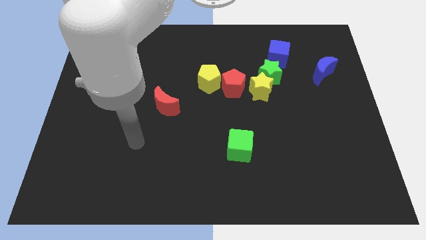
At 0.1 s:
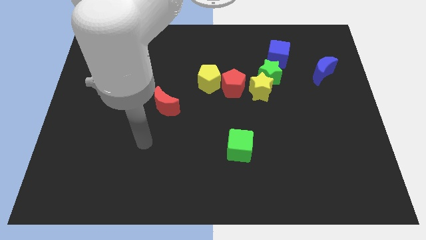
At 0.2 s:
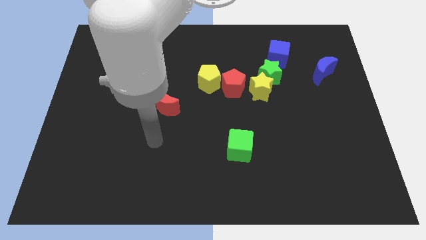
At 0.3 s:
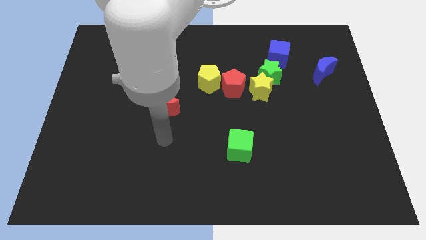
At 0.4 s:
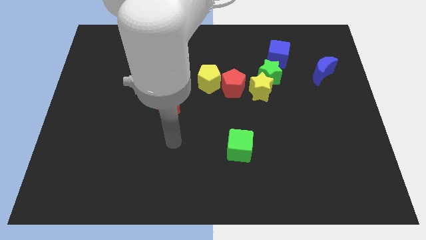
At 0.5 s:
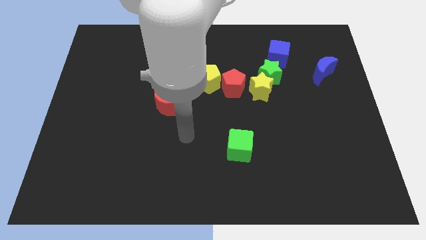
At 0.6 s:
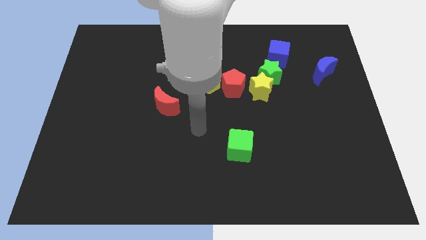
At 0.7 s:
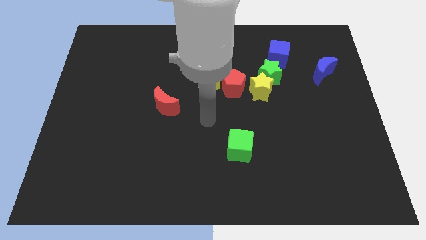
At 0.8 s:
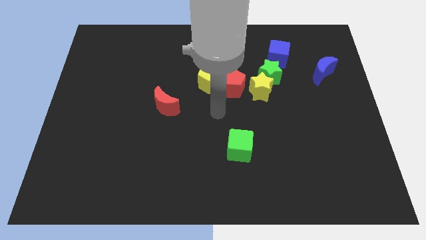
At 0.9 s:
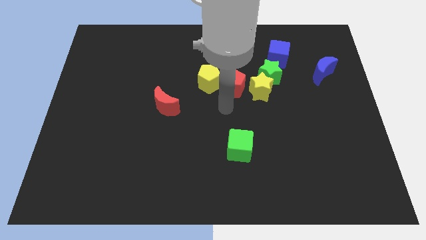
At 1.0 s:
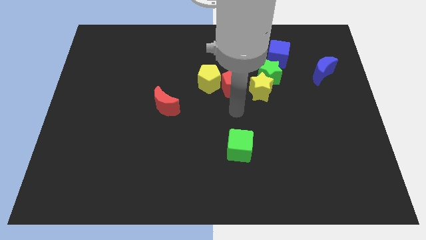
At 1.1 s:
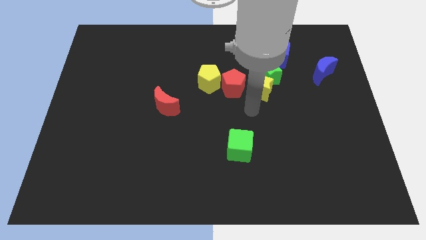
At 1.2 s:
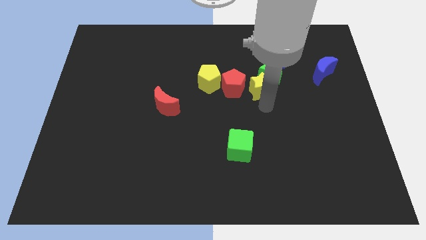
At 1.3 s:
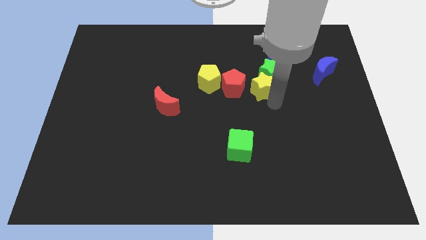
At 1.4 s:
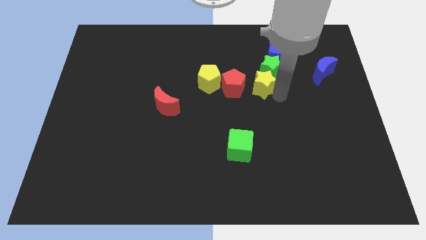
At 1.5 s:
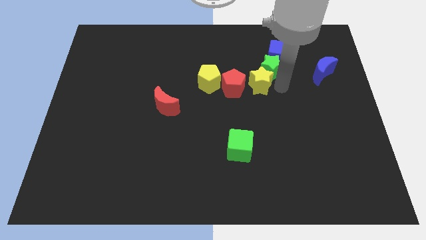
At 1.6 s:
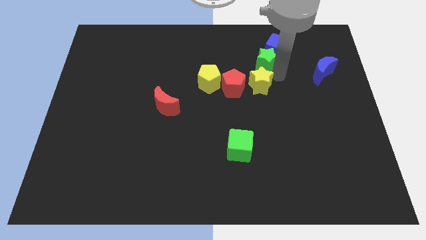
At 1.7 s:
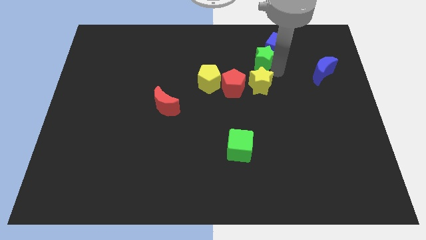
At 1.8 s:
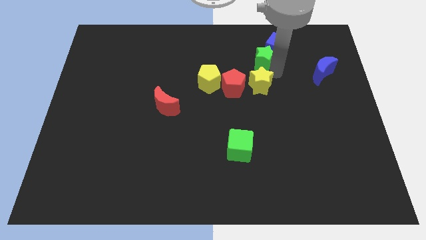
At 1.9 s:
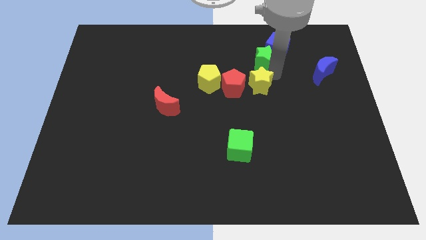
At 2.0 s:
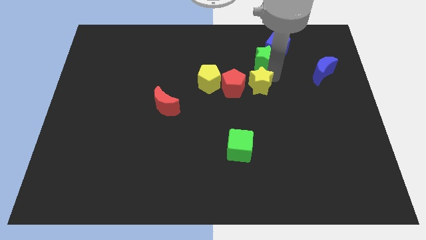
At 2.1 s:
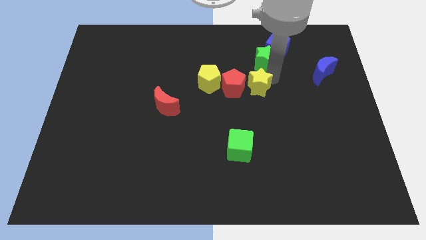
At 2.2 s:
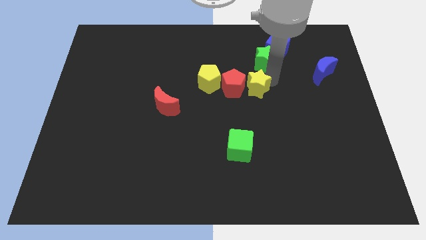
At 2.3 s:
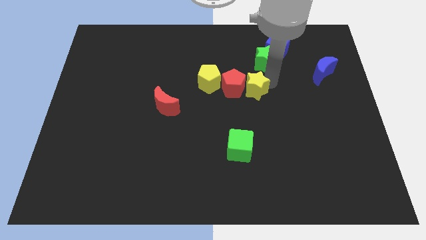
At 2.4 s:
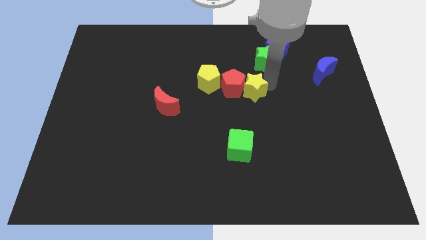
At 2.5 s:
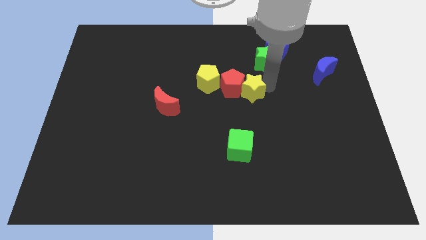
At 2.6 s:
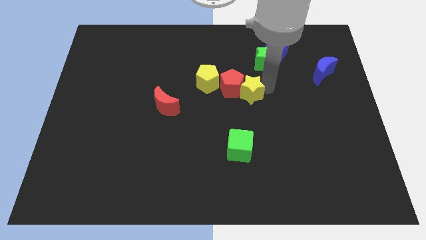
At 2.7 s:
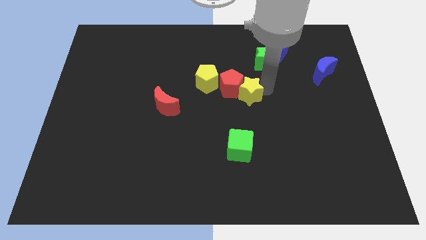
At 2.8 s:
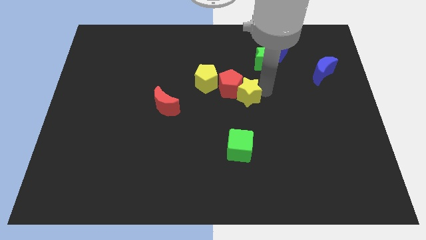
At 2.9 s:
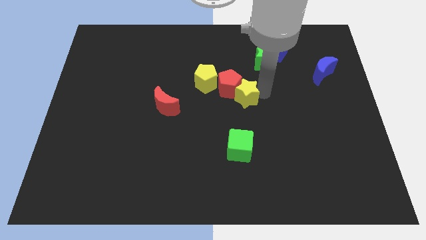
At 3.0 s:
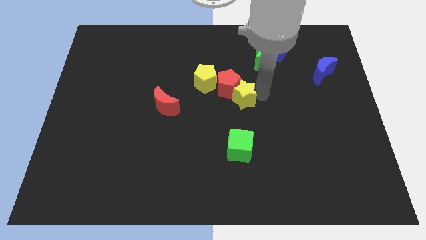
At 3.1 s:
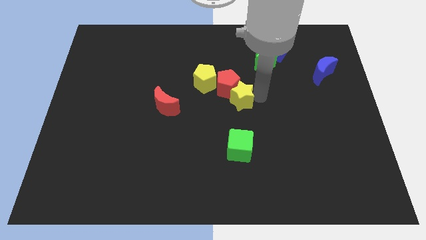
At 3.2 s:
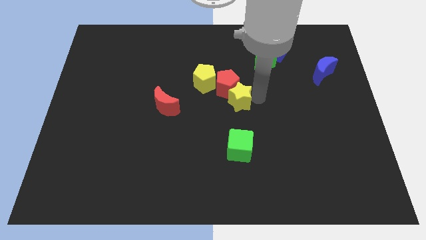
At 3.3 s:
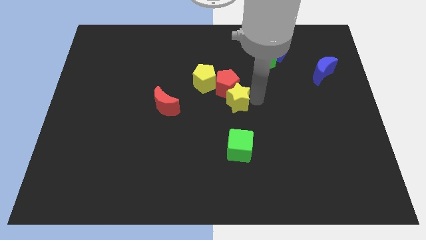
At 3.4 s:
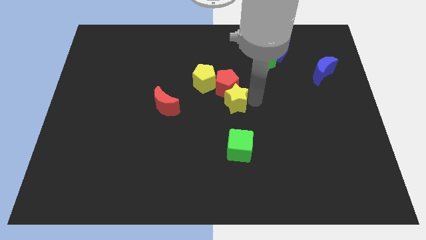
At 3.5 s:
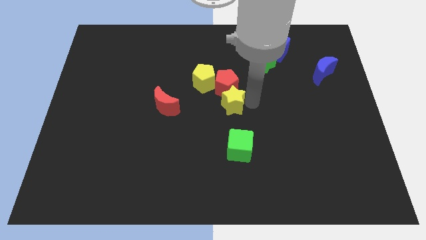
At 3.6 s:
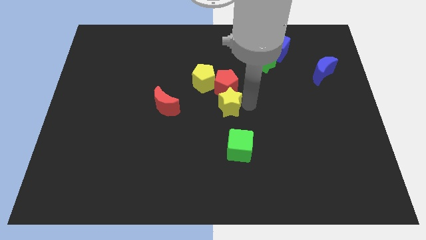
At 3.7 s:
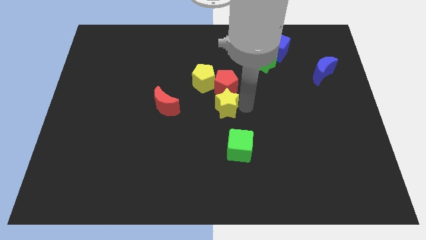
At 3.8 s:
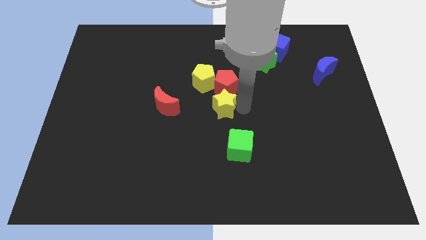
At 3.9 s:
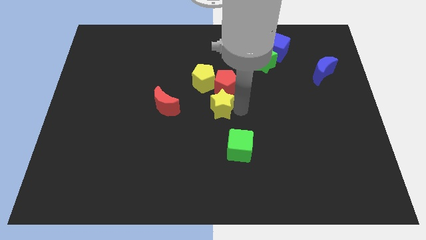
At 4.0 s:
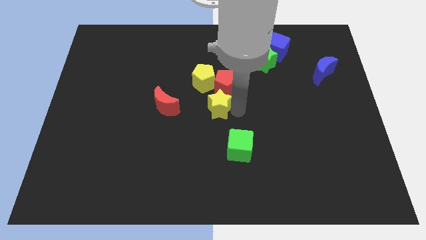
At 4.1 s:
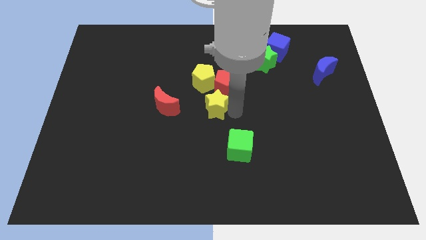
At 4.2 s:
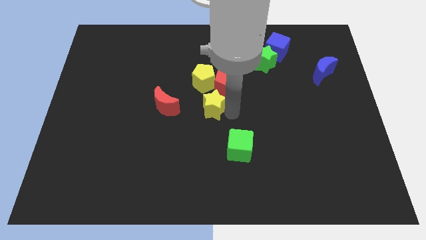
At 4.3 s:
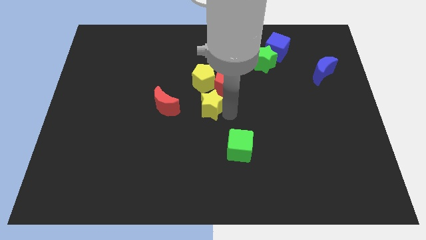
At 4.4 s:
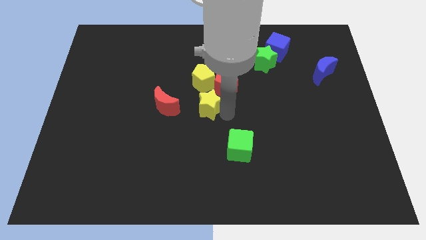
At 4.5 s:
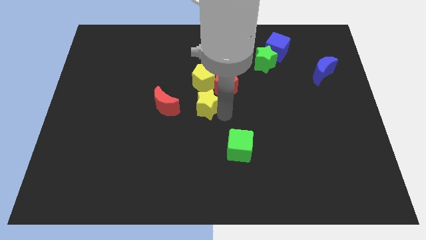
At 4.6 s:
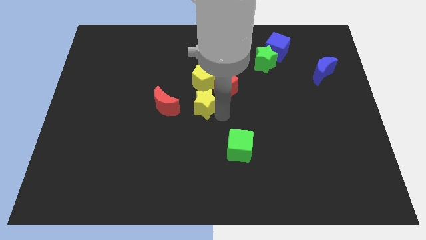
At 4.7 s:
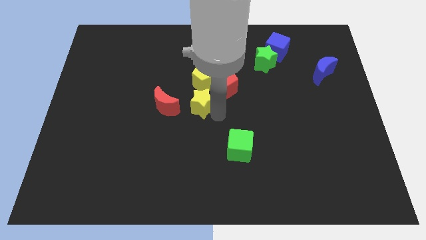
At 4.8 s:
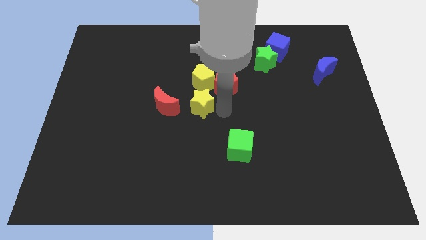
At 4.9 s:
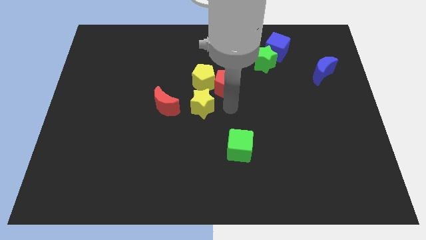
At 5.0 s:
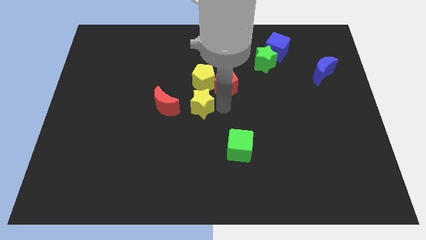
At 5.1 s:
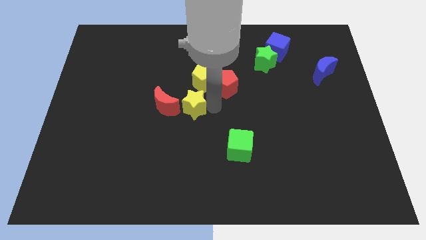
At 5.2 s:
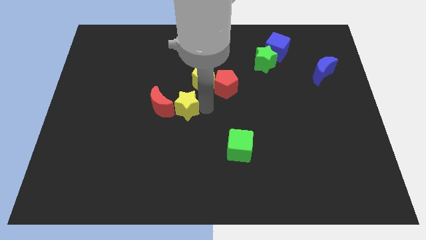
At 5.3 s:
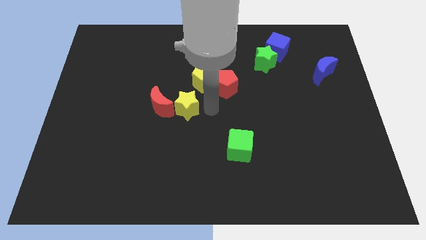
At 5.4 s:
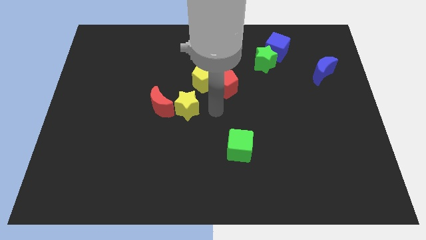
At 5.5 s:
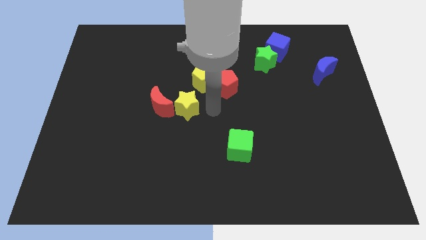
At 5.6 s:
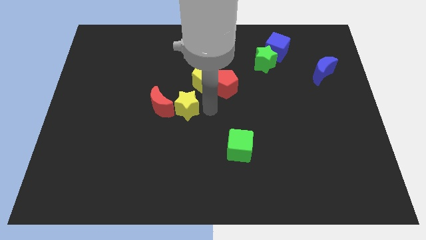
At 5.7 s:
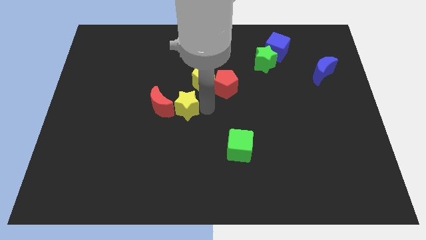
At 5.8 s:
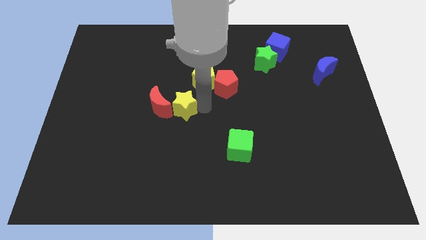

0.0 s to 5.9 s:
put the yellow star to the red moon

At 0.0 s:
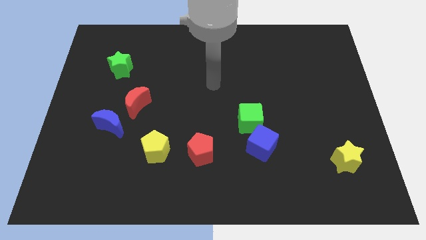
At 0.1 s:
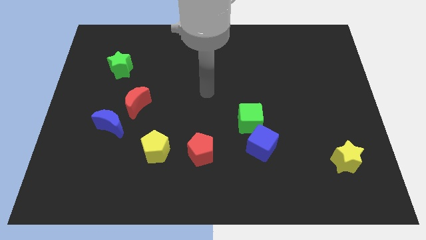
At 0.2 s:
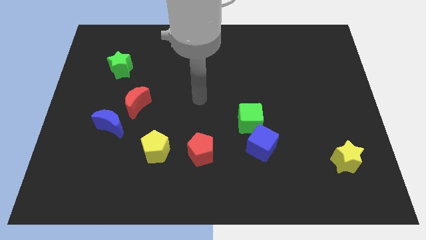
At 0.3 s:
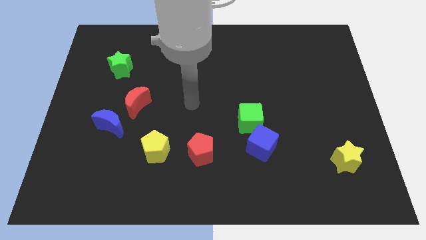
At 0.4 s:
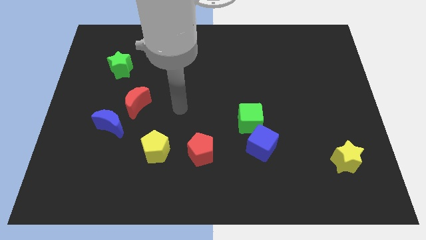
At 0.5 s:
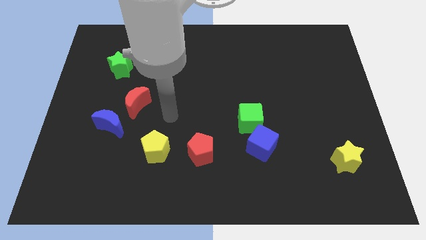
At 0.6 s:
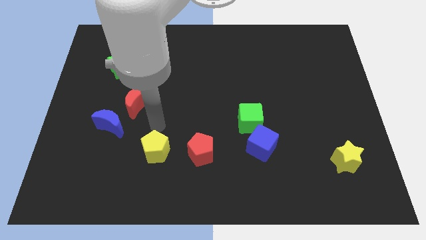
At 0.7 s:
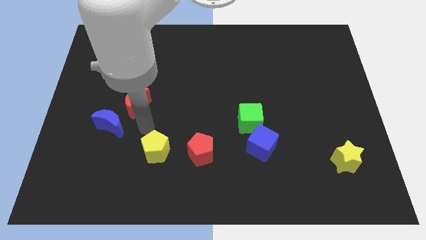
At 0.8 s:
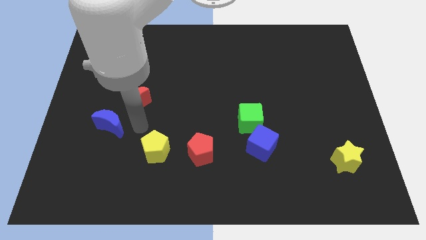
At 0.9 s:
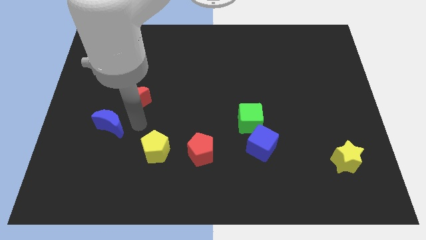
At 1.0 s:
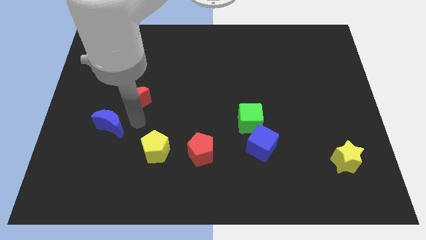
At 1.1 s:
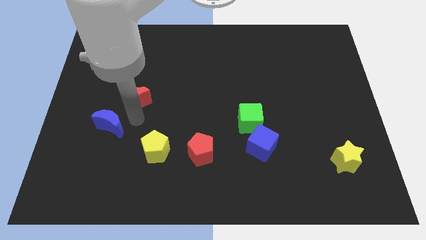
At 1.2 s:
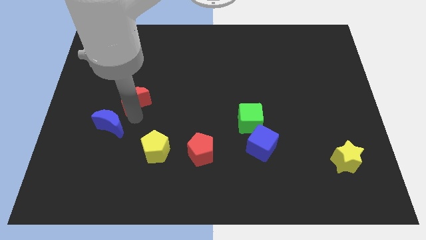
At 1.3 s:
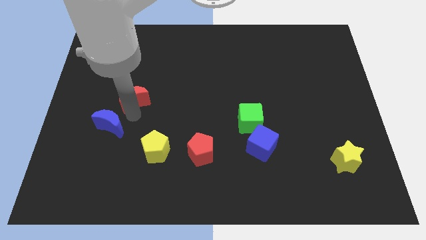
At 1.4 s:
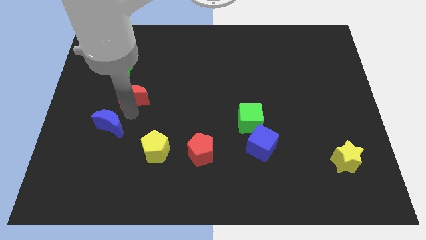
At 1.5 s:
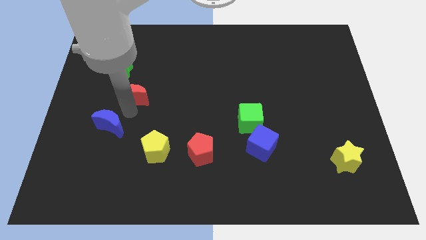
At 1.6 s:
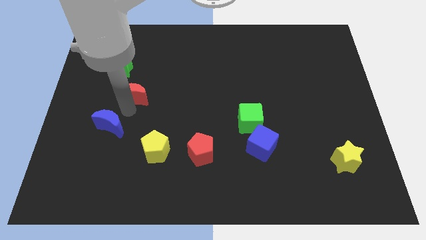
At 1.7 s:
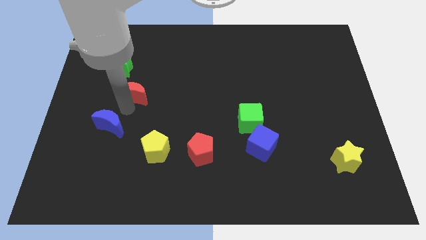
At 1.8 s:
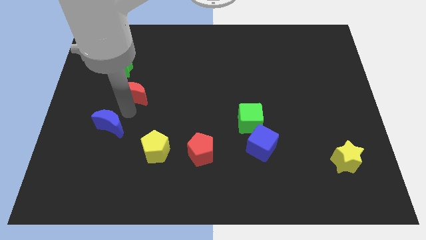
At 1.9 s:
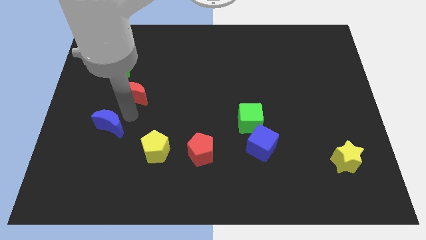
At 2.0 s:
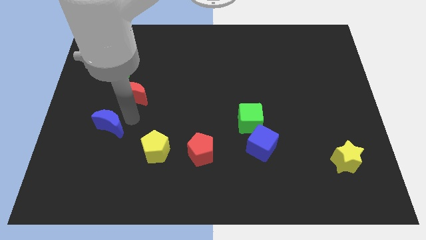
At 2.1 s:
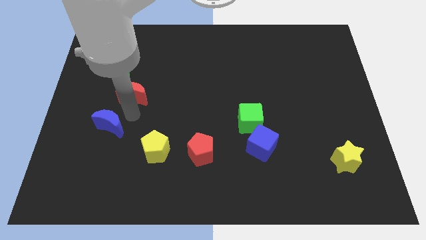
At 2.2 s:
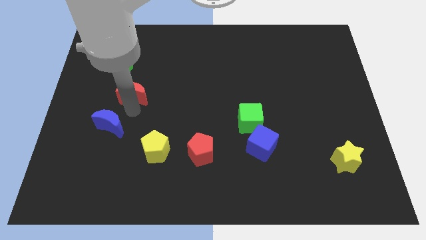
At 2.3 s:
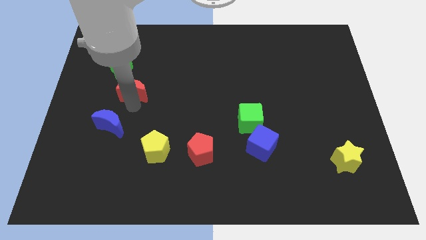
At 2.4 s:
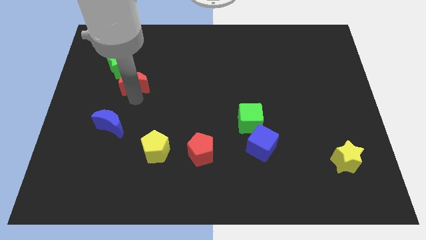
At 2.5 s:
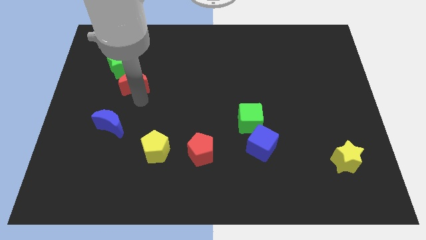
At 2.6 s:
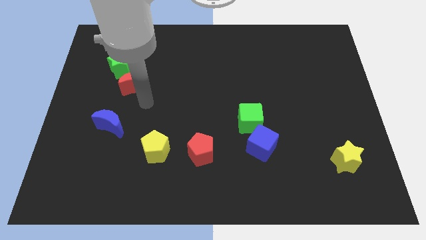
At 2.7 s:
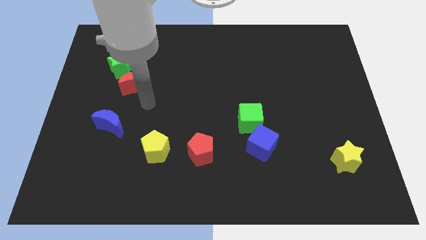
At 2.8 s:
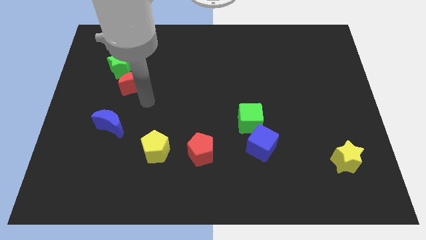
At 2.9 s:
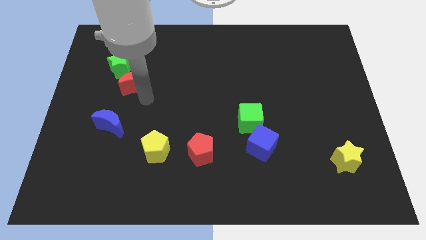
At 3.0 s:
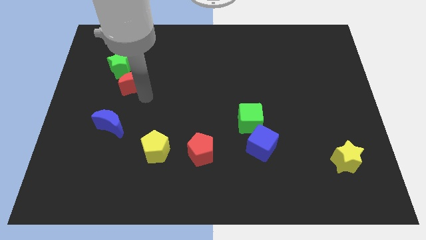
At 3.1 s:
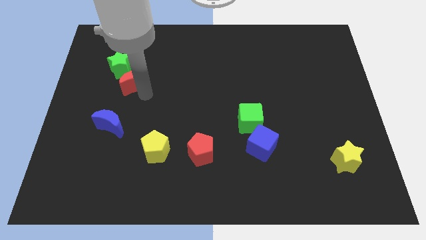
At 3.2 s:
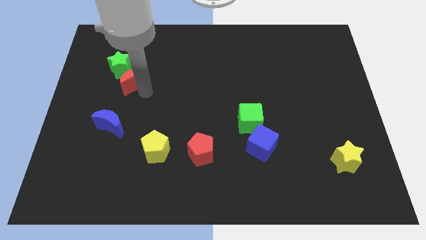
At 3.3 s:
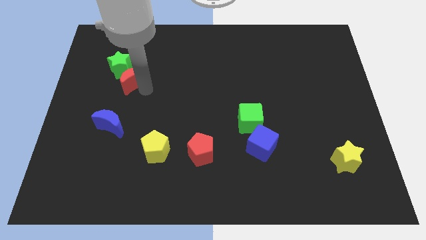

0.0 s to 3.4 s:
slide the red moon to the green star
